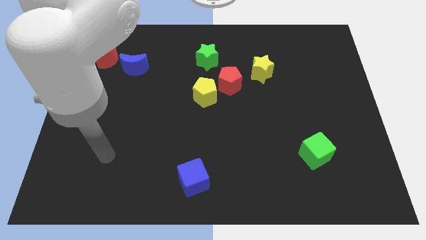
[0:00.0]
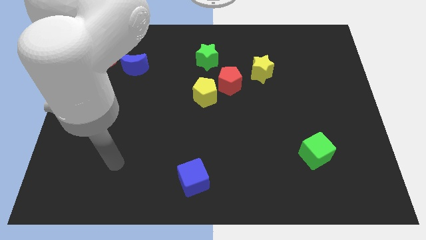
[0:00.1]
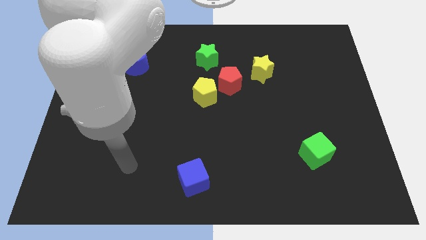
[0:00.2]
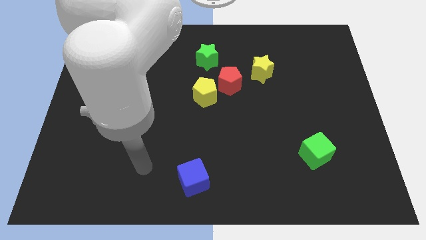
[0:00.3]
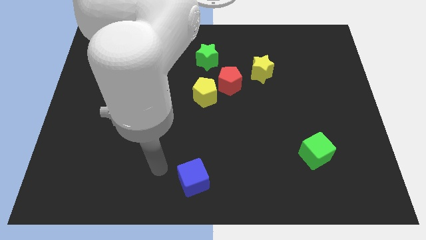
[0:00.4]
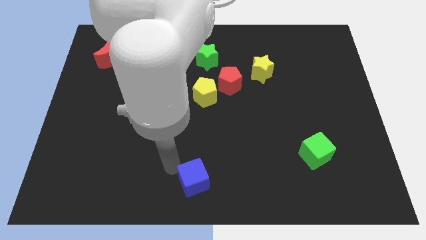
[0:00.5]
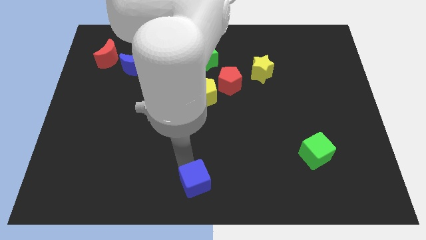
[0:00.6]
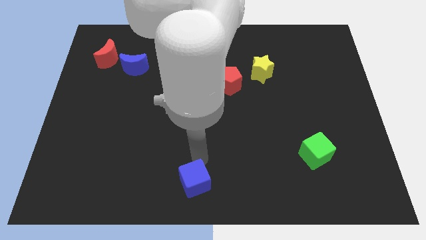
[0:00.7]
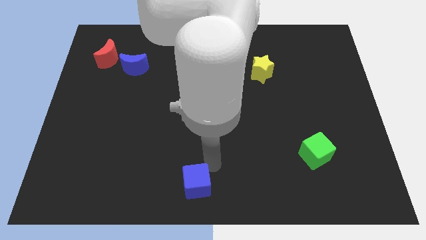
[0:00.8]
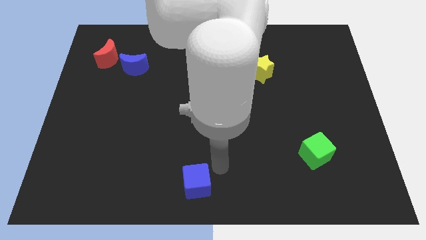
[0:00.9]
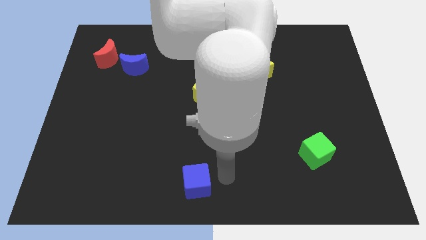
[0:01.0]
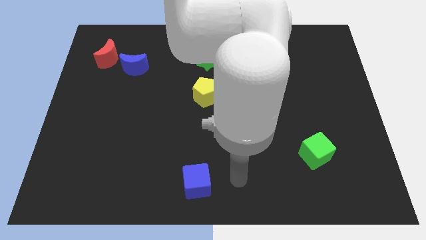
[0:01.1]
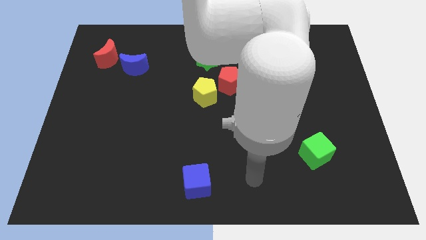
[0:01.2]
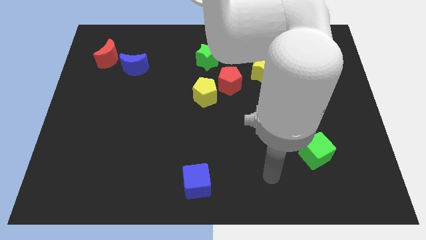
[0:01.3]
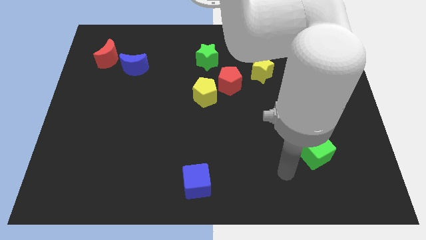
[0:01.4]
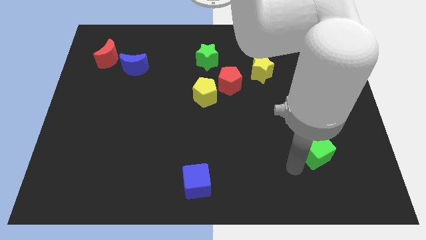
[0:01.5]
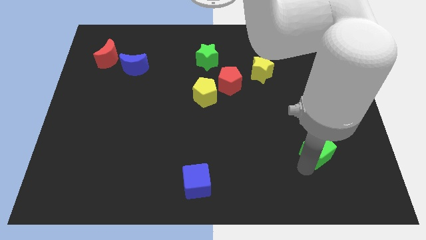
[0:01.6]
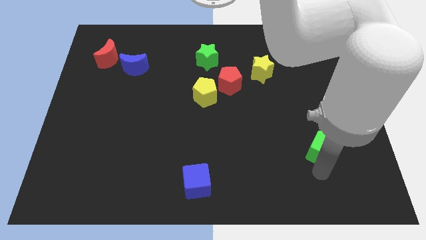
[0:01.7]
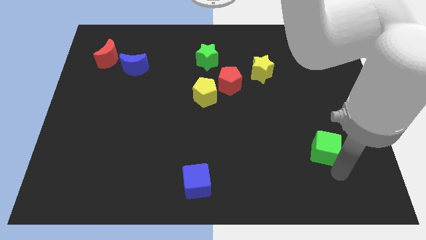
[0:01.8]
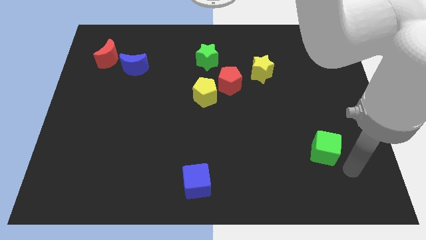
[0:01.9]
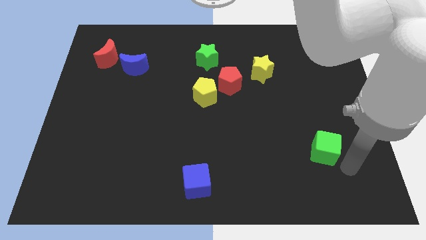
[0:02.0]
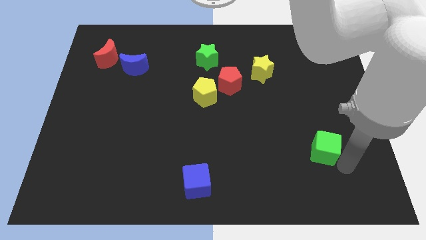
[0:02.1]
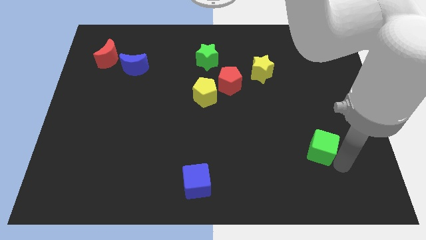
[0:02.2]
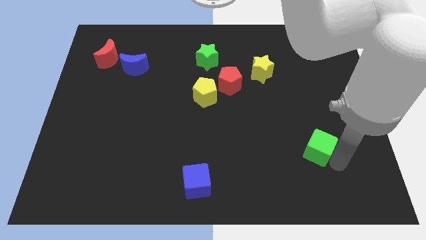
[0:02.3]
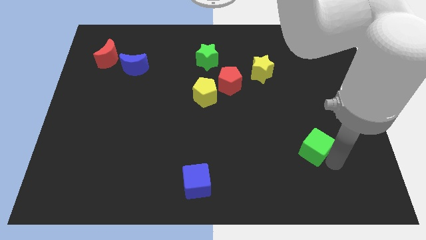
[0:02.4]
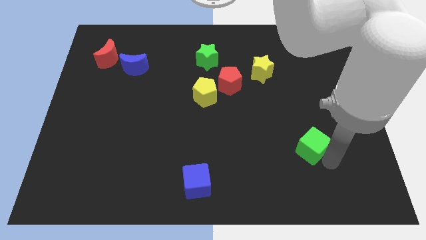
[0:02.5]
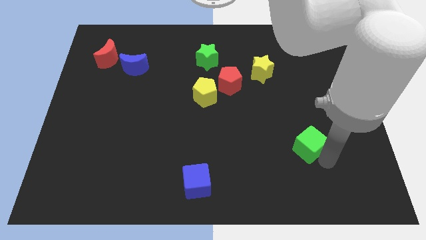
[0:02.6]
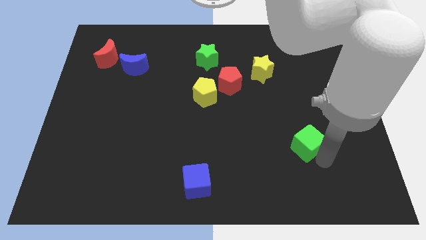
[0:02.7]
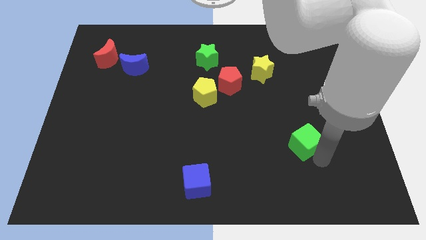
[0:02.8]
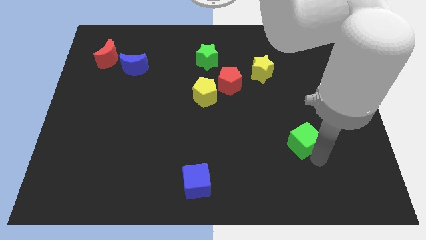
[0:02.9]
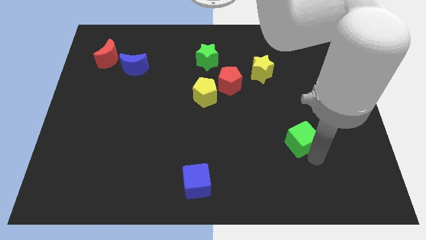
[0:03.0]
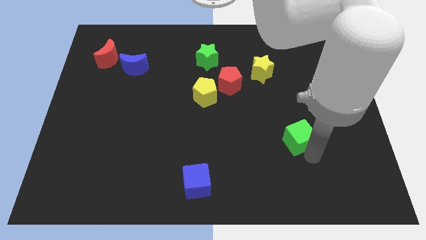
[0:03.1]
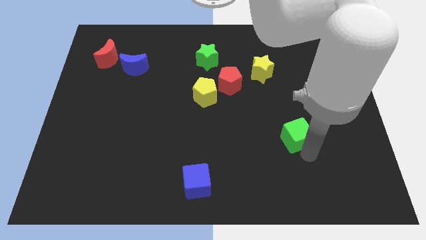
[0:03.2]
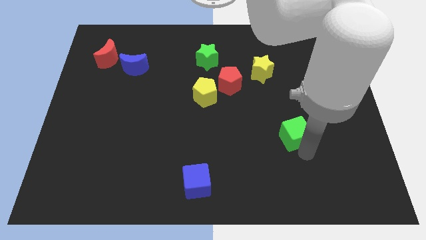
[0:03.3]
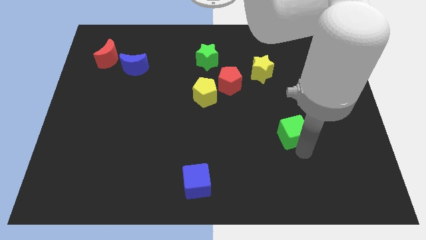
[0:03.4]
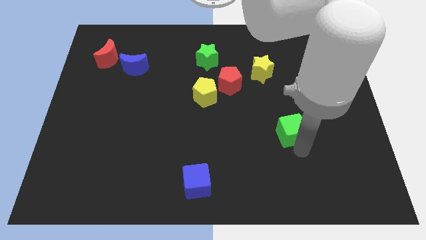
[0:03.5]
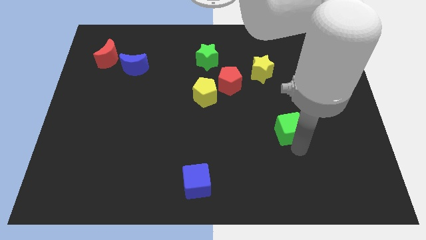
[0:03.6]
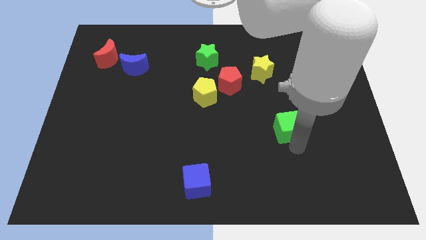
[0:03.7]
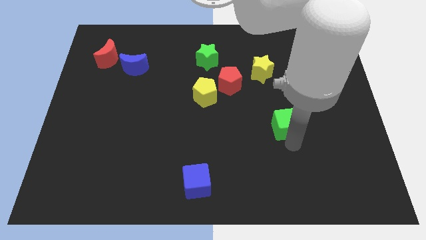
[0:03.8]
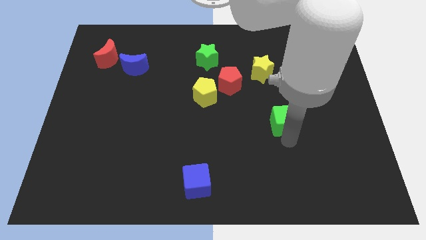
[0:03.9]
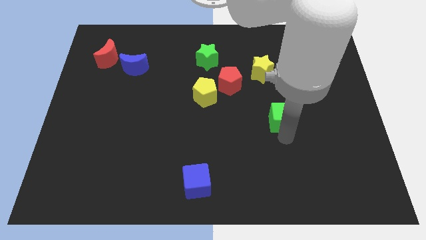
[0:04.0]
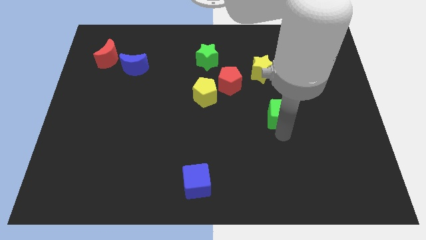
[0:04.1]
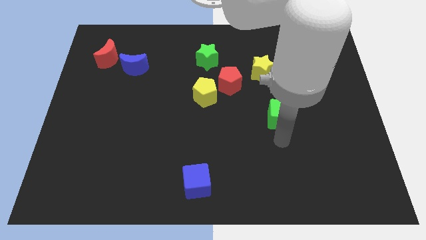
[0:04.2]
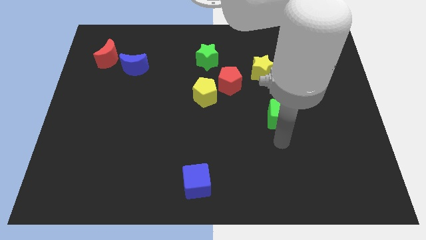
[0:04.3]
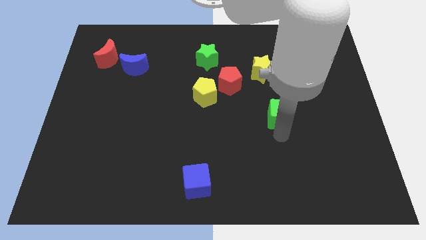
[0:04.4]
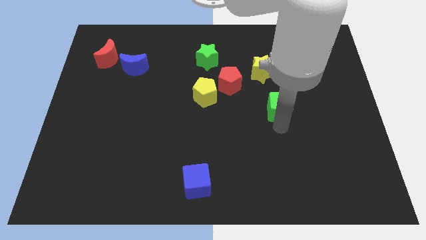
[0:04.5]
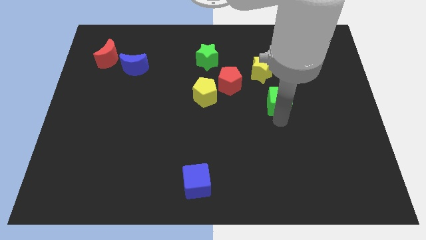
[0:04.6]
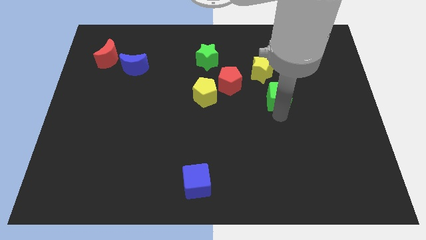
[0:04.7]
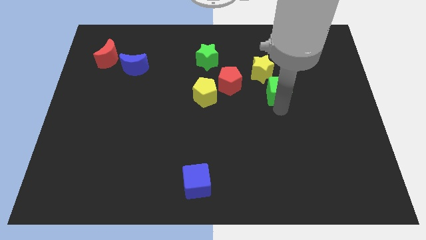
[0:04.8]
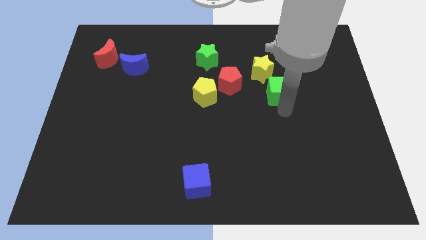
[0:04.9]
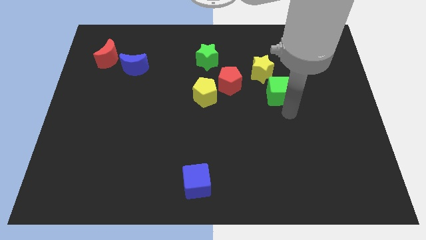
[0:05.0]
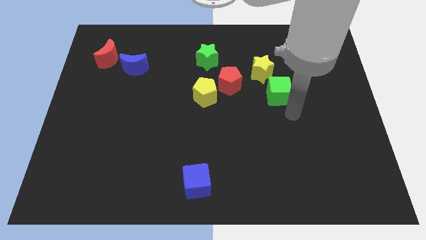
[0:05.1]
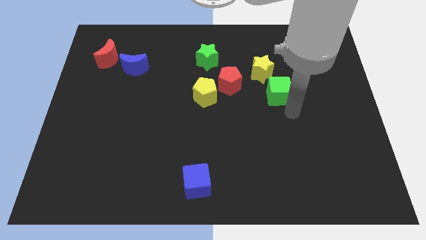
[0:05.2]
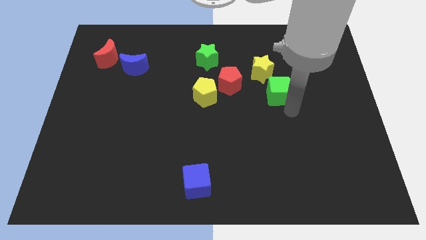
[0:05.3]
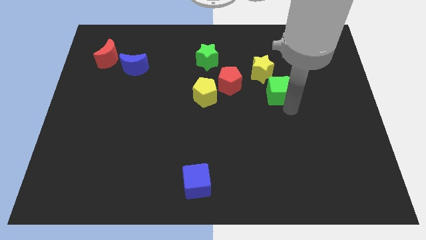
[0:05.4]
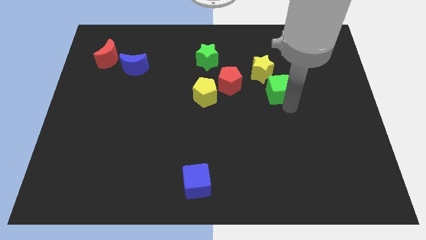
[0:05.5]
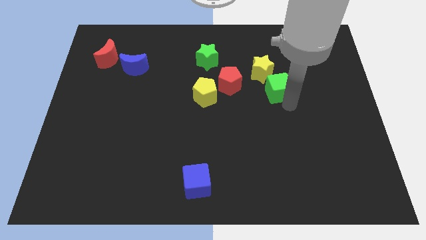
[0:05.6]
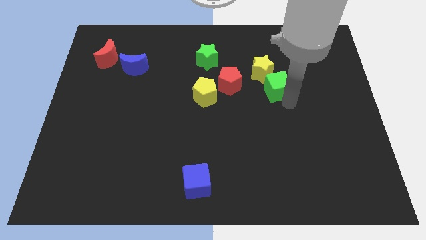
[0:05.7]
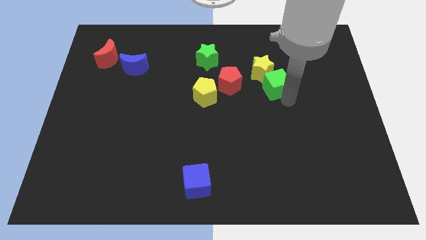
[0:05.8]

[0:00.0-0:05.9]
slide the green cube towards the yellow star

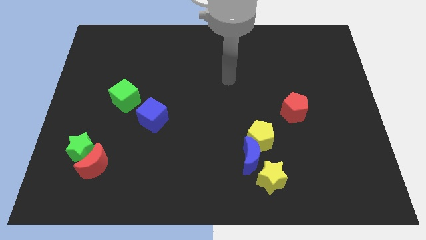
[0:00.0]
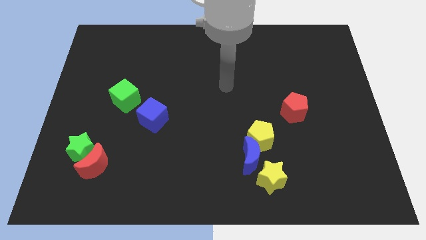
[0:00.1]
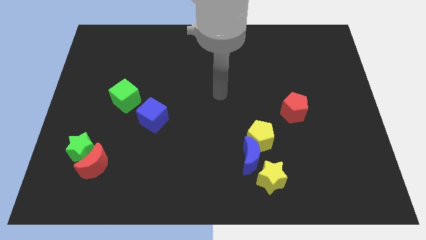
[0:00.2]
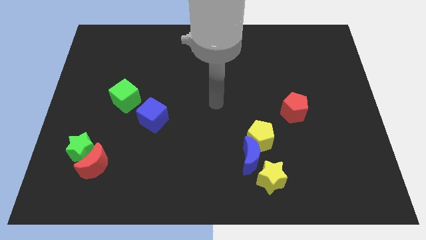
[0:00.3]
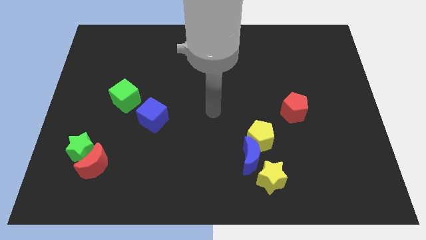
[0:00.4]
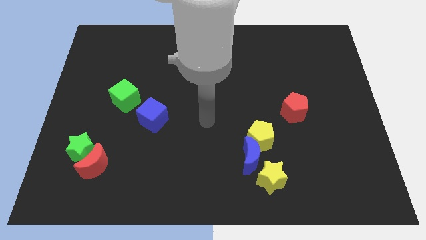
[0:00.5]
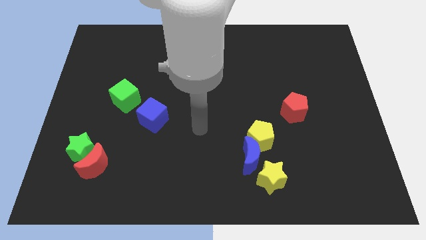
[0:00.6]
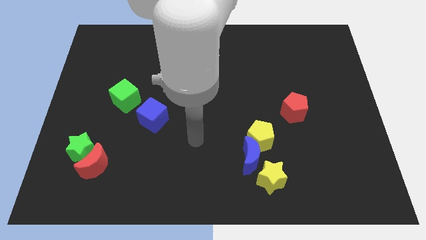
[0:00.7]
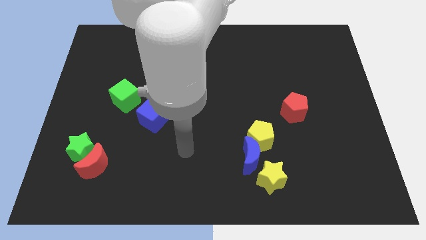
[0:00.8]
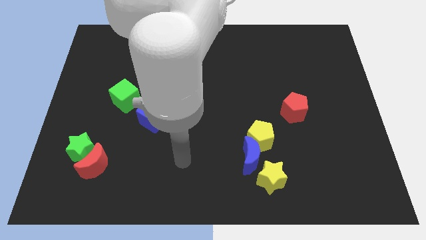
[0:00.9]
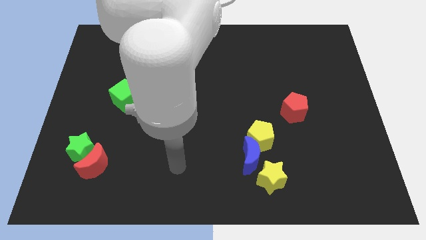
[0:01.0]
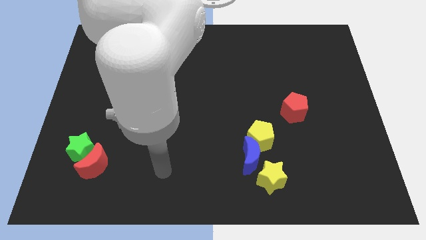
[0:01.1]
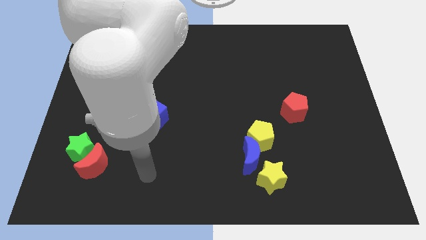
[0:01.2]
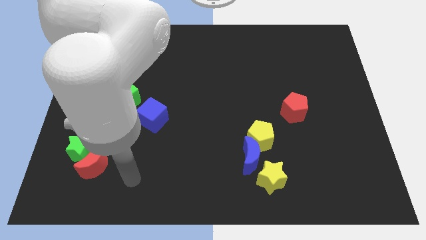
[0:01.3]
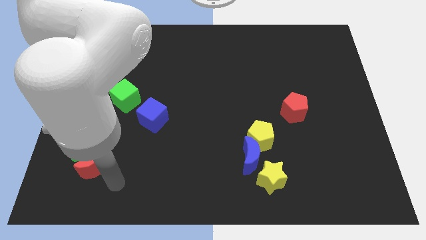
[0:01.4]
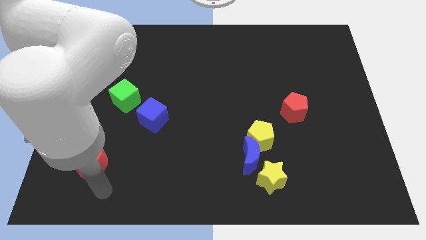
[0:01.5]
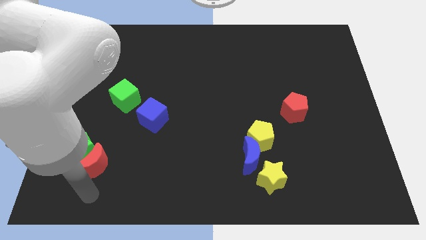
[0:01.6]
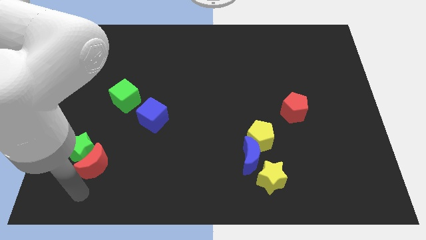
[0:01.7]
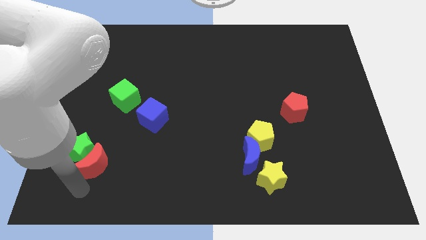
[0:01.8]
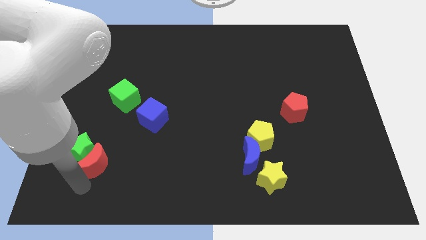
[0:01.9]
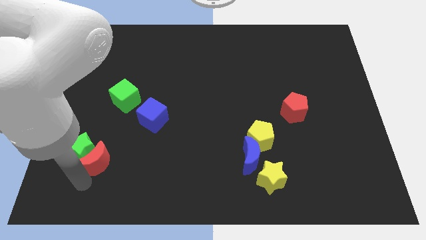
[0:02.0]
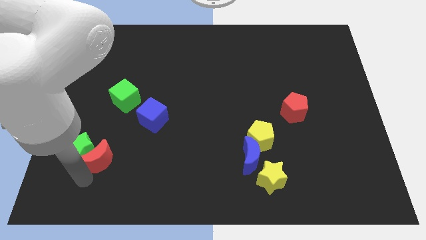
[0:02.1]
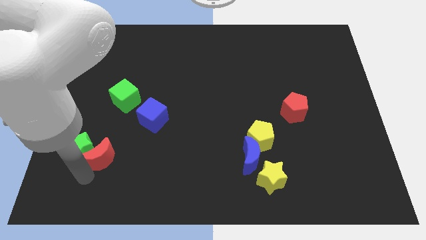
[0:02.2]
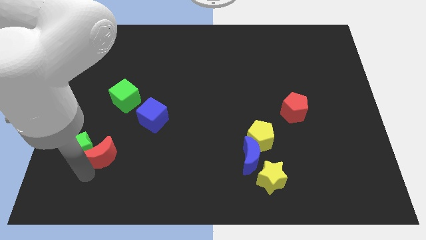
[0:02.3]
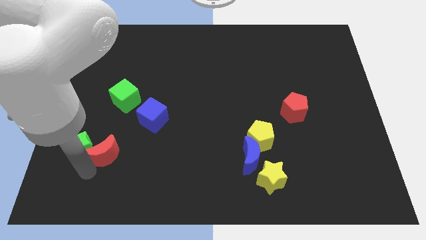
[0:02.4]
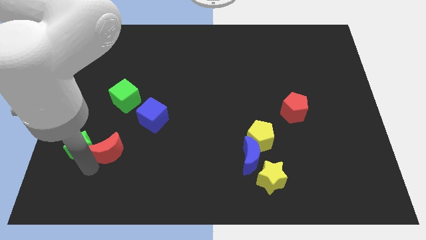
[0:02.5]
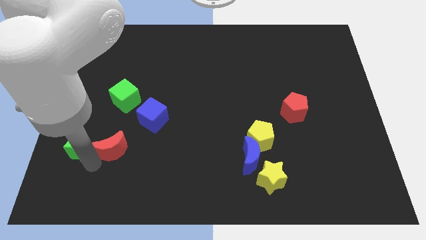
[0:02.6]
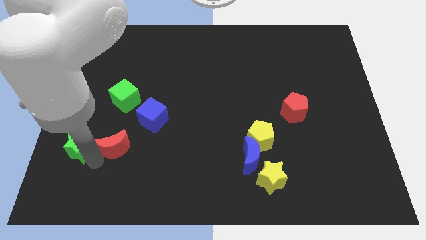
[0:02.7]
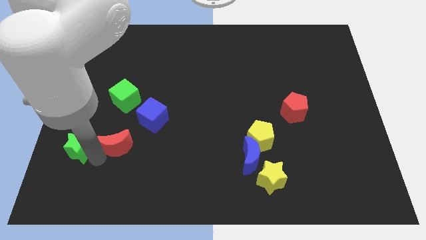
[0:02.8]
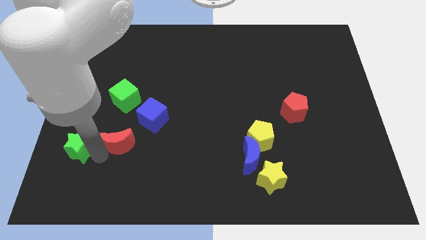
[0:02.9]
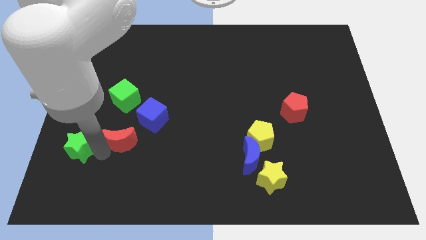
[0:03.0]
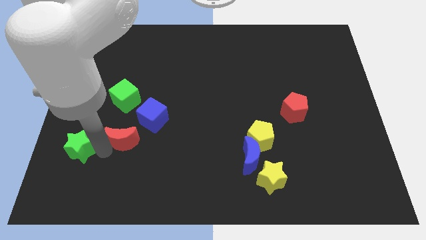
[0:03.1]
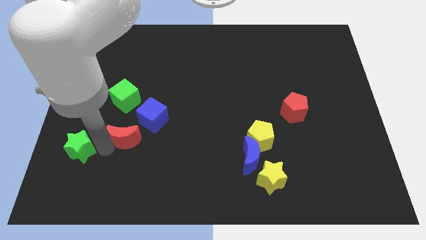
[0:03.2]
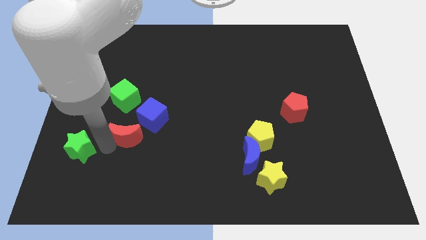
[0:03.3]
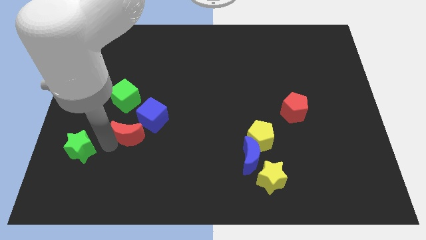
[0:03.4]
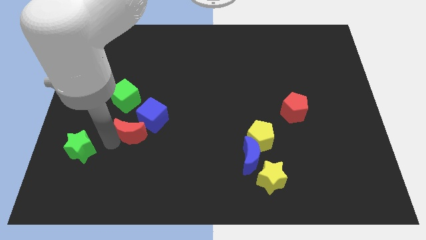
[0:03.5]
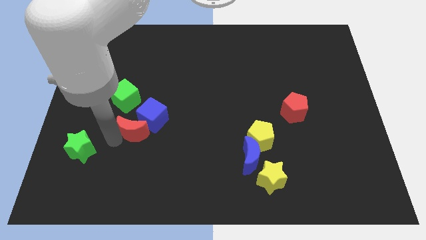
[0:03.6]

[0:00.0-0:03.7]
push the red moon to the blue cube
